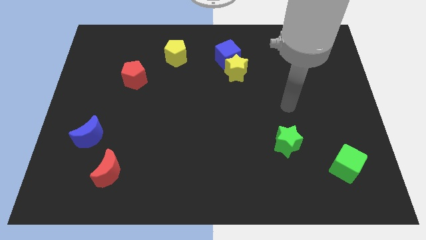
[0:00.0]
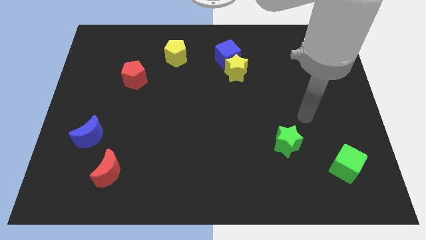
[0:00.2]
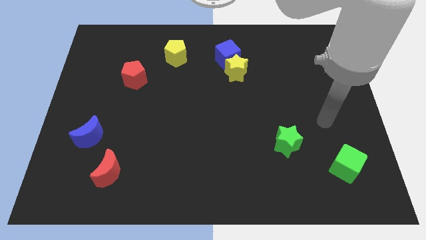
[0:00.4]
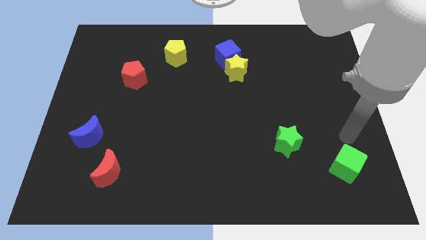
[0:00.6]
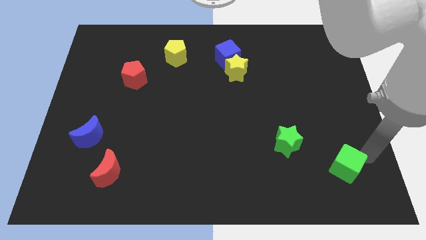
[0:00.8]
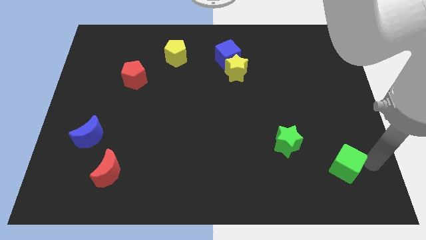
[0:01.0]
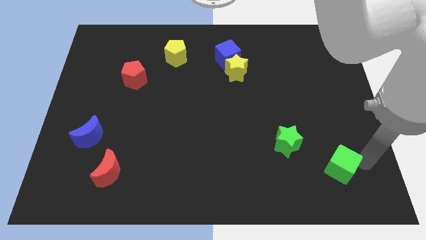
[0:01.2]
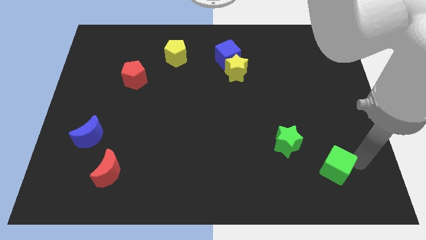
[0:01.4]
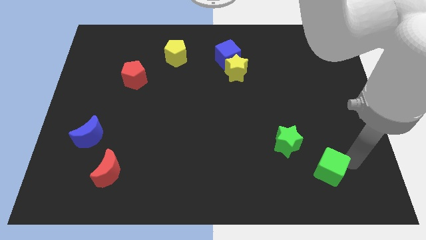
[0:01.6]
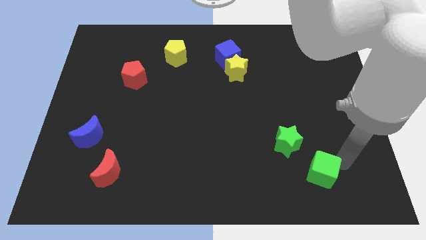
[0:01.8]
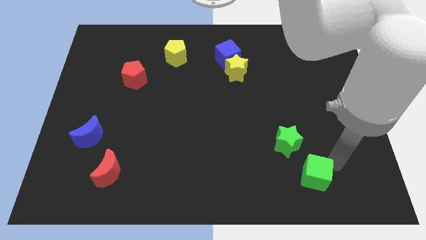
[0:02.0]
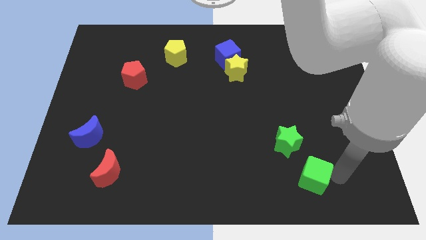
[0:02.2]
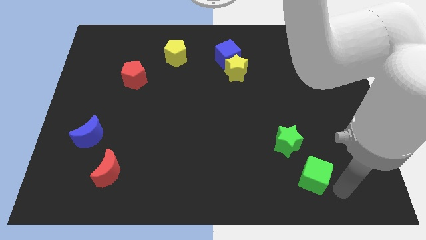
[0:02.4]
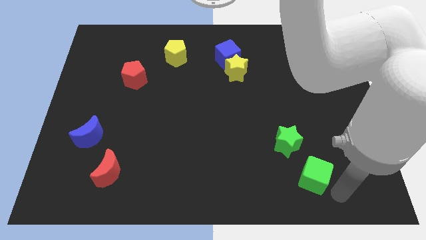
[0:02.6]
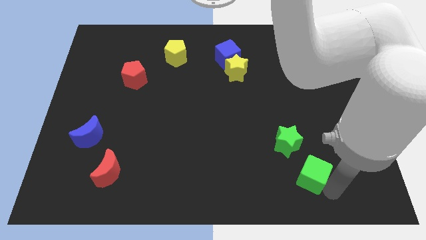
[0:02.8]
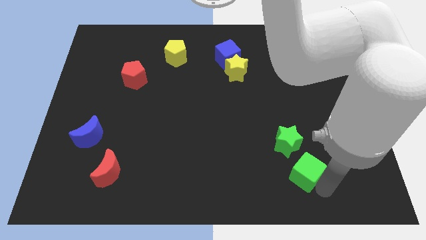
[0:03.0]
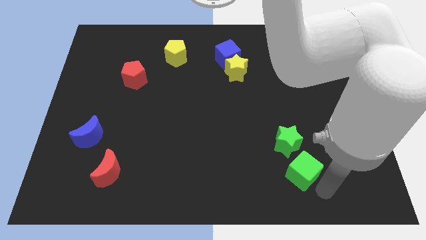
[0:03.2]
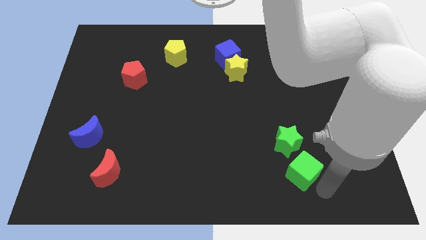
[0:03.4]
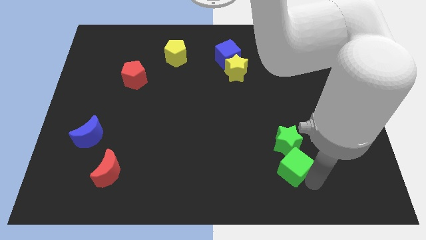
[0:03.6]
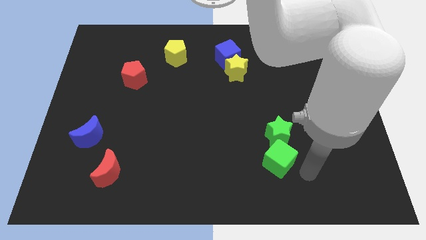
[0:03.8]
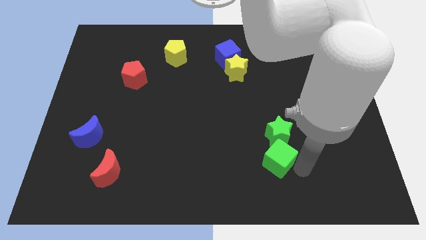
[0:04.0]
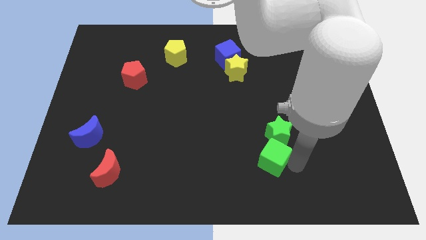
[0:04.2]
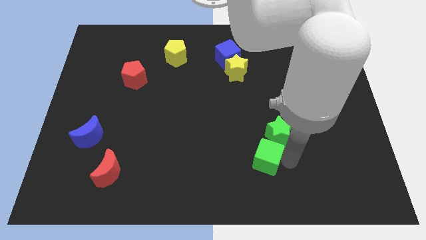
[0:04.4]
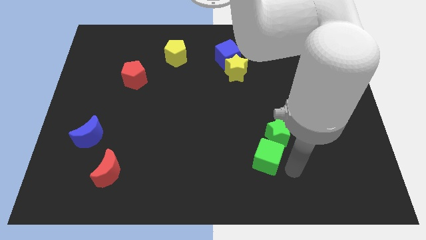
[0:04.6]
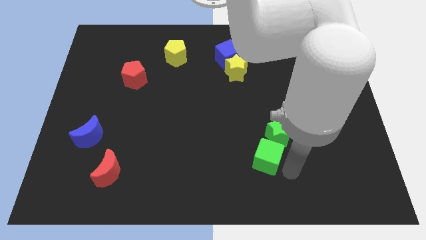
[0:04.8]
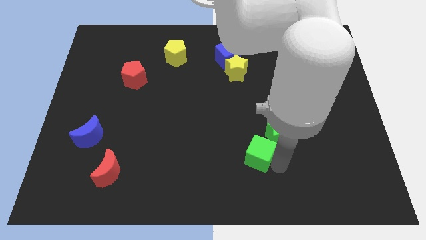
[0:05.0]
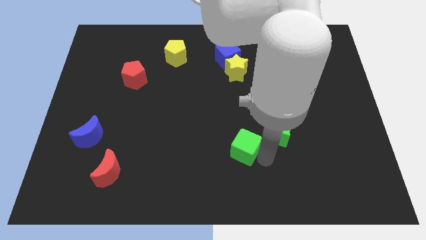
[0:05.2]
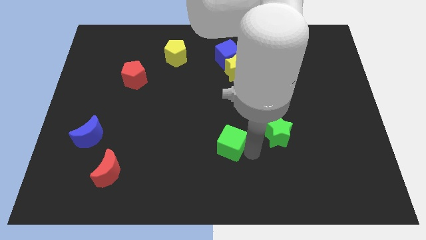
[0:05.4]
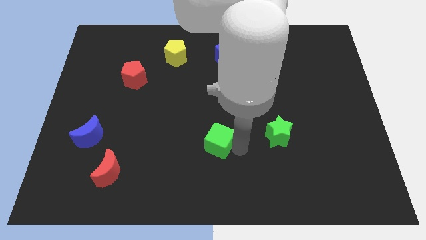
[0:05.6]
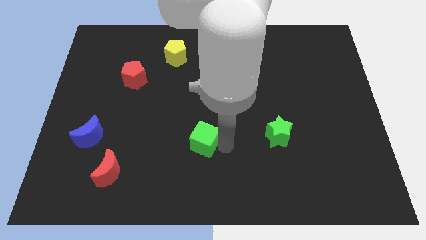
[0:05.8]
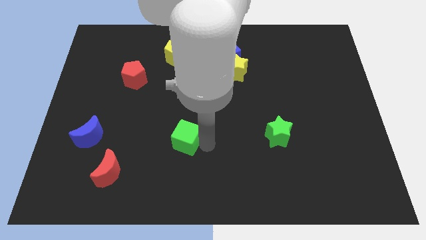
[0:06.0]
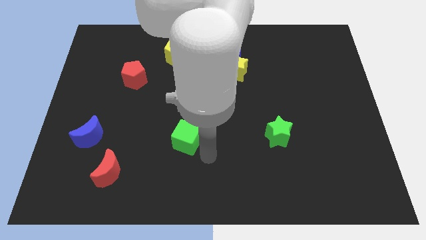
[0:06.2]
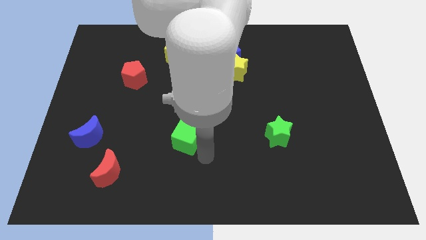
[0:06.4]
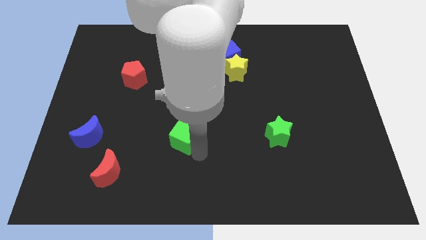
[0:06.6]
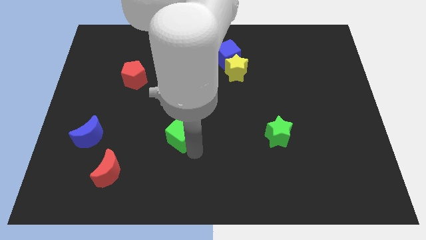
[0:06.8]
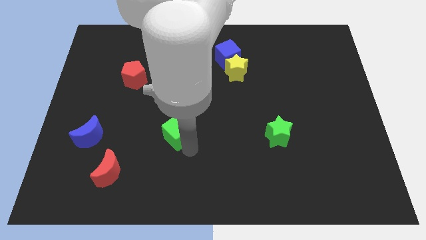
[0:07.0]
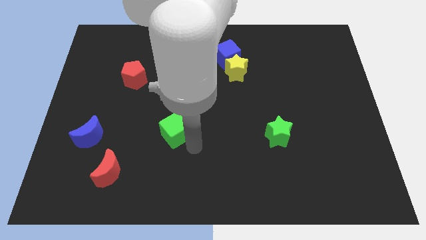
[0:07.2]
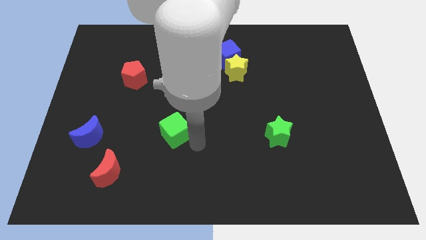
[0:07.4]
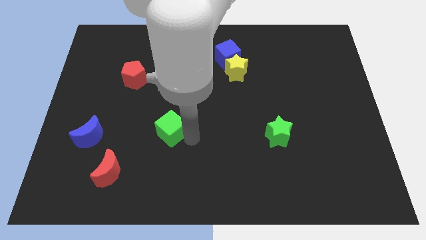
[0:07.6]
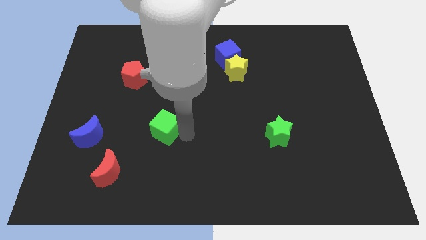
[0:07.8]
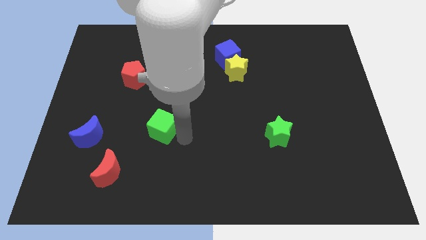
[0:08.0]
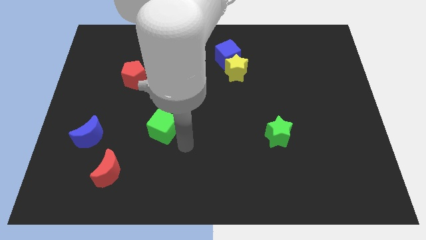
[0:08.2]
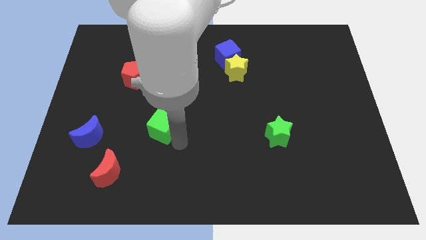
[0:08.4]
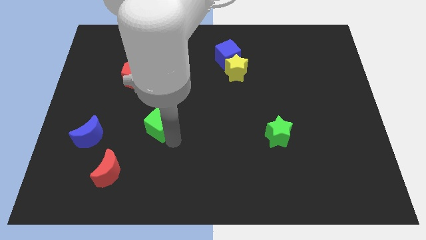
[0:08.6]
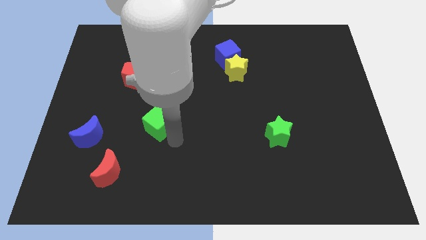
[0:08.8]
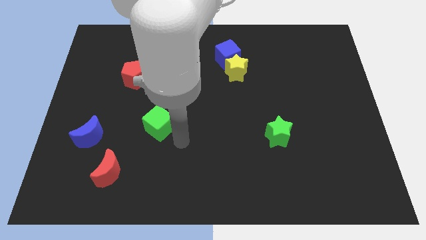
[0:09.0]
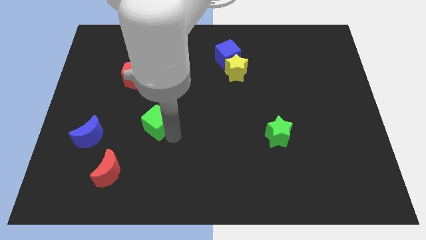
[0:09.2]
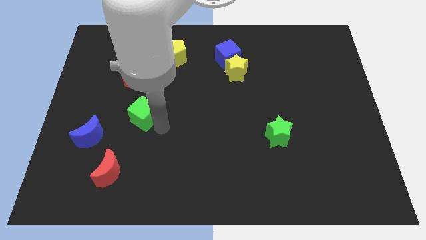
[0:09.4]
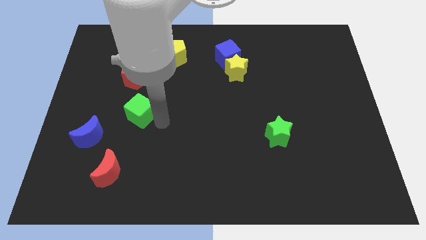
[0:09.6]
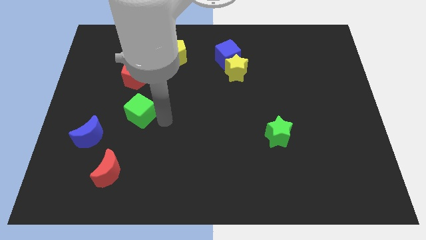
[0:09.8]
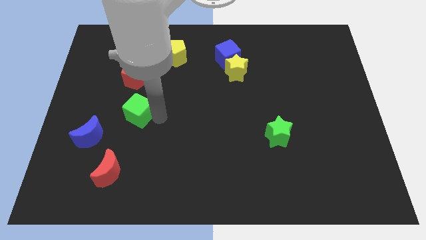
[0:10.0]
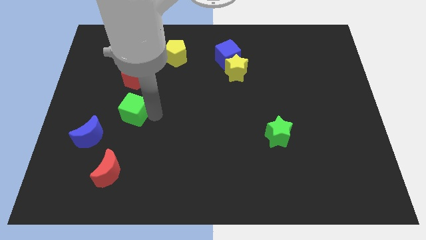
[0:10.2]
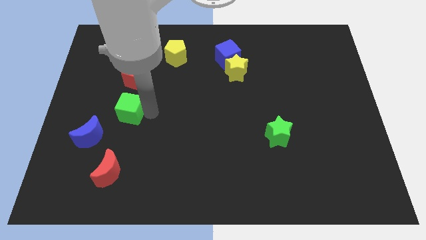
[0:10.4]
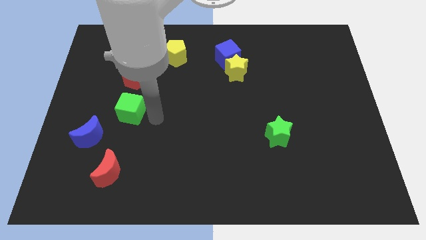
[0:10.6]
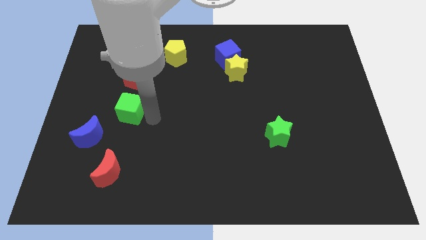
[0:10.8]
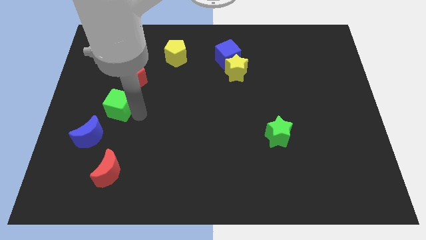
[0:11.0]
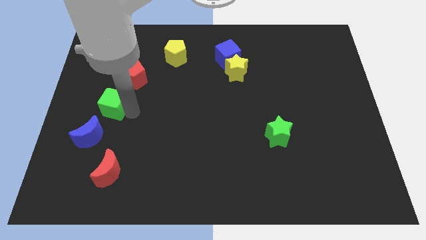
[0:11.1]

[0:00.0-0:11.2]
move the green cube above the blue moon

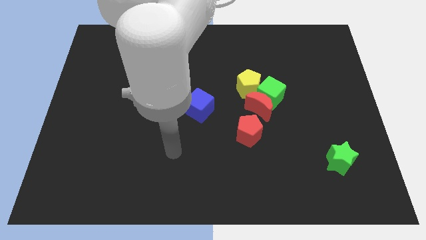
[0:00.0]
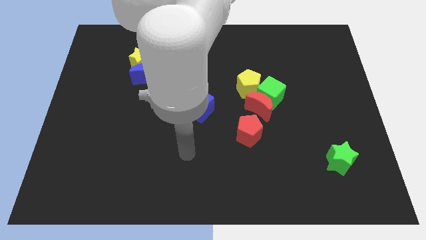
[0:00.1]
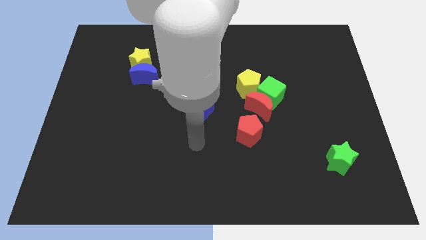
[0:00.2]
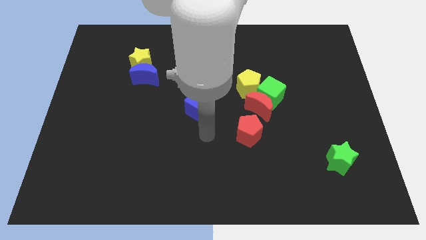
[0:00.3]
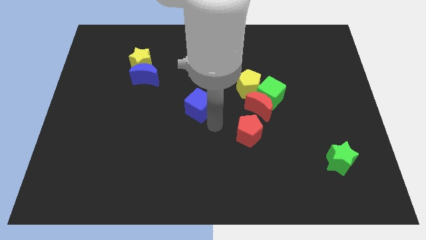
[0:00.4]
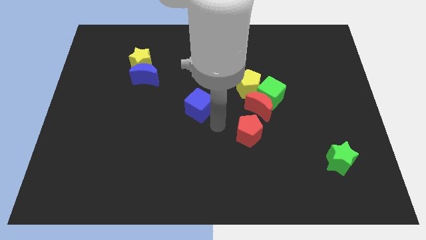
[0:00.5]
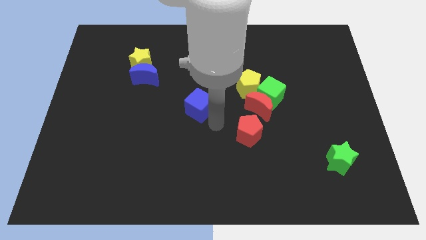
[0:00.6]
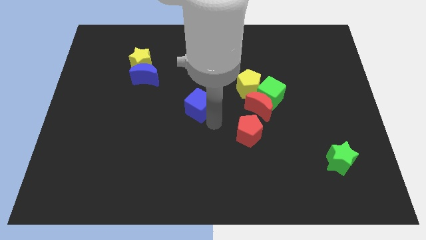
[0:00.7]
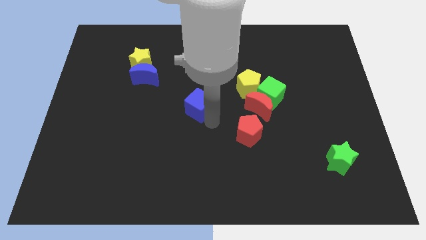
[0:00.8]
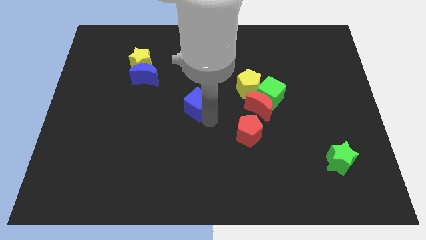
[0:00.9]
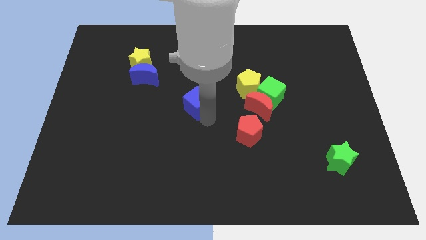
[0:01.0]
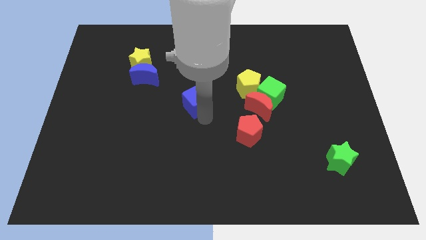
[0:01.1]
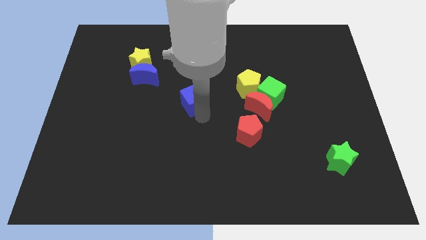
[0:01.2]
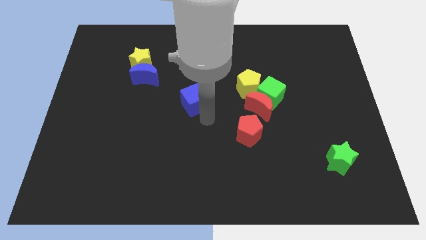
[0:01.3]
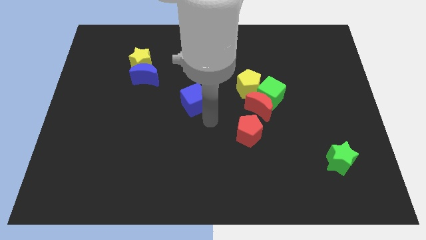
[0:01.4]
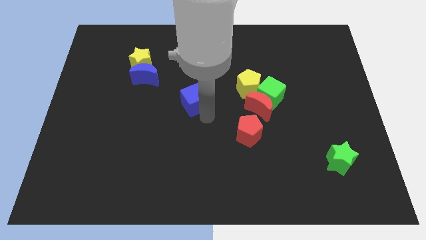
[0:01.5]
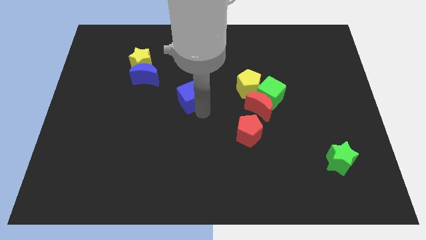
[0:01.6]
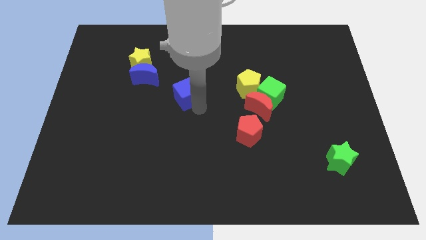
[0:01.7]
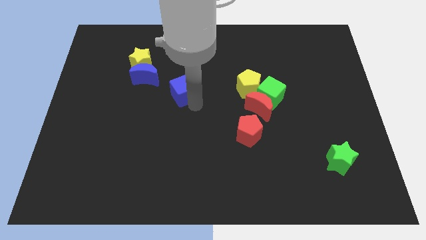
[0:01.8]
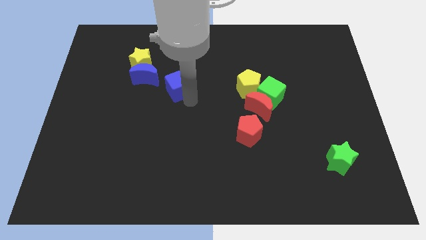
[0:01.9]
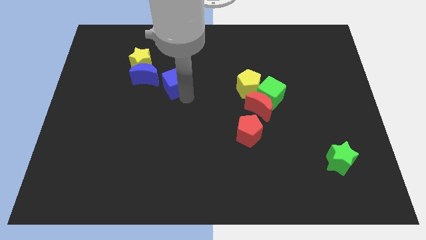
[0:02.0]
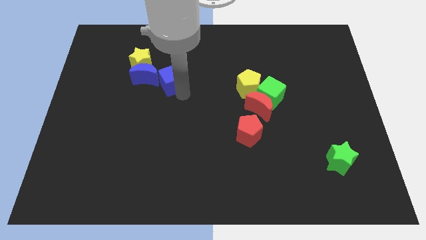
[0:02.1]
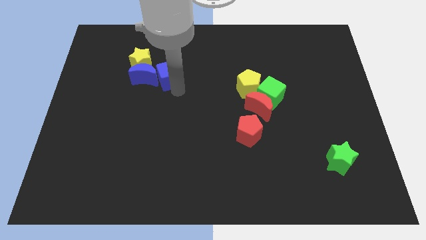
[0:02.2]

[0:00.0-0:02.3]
push the blue cube diagonally up and to the right of the blue moon
